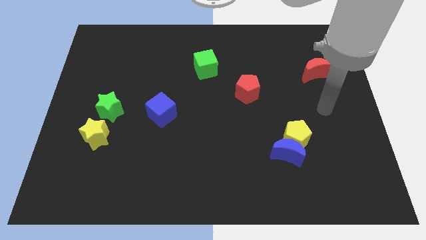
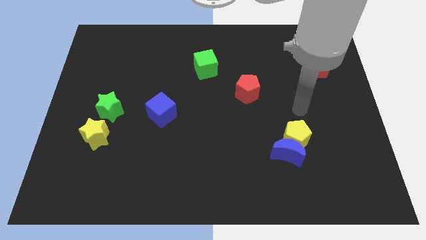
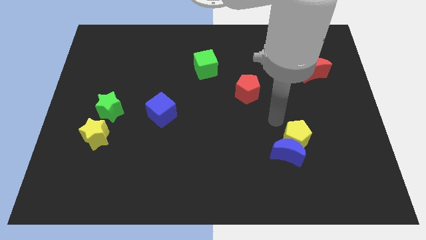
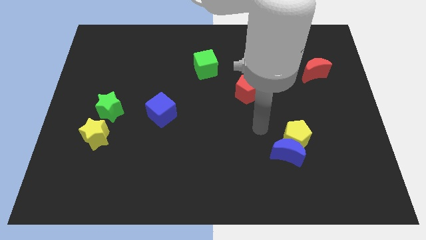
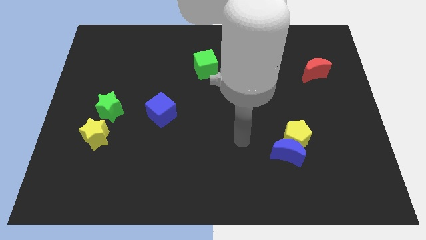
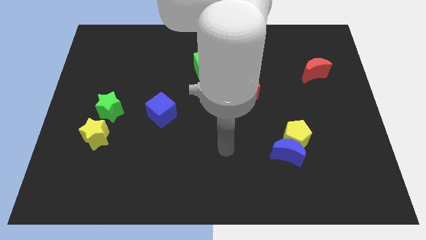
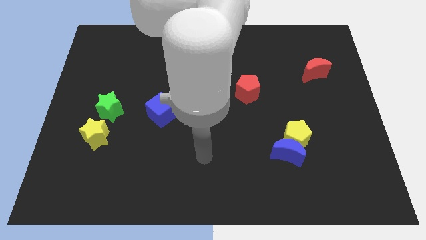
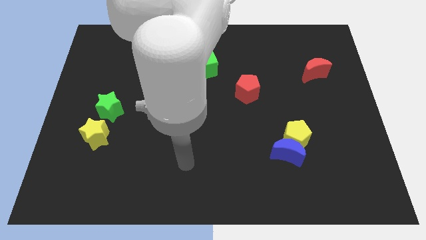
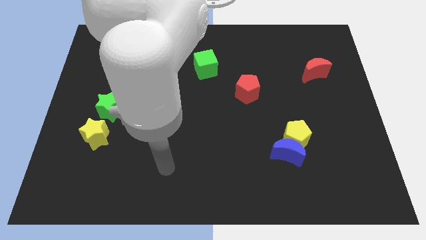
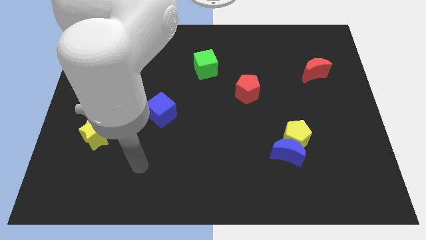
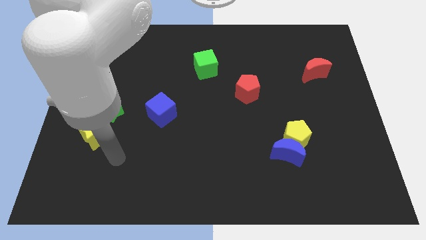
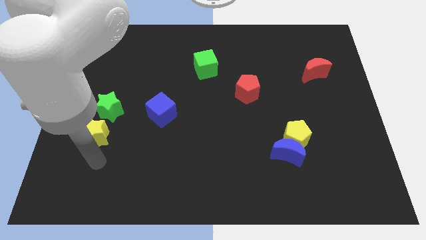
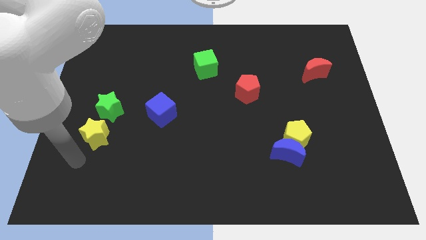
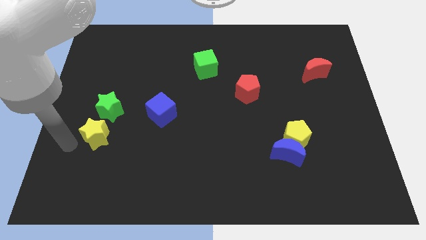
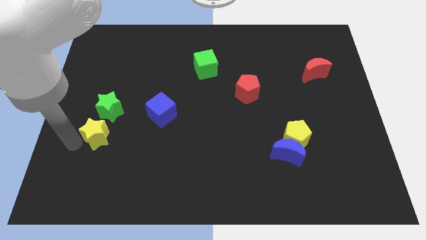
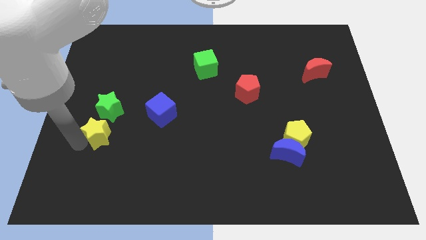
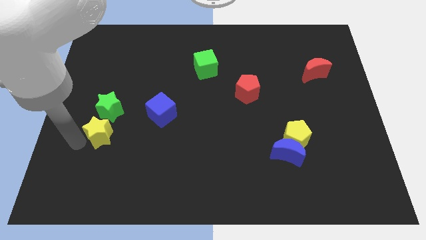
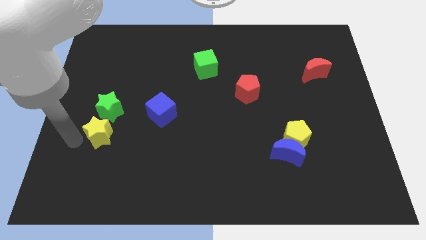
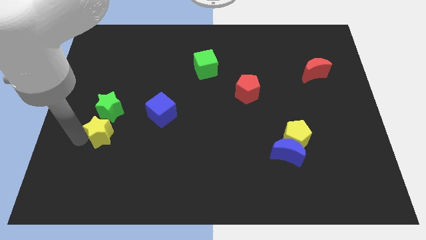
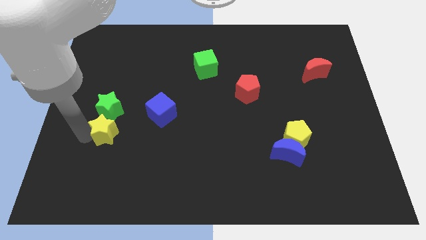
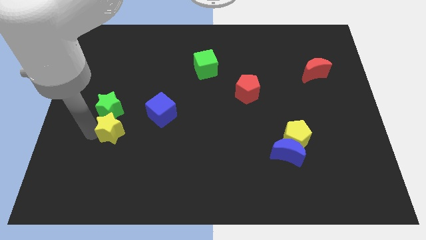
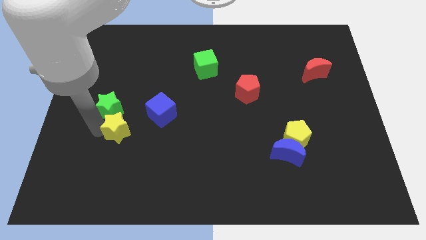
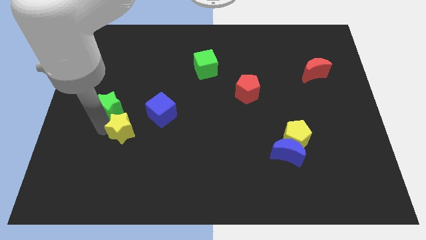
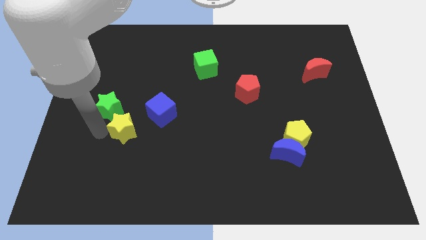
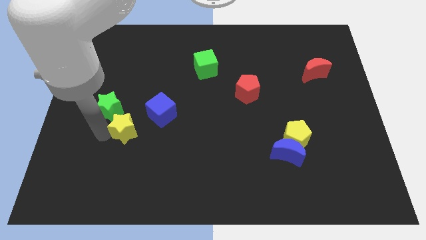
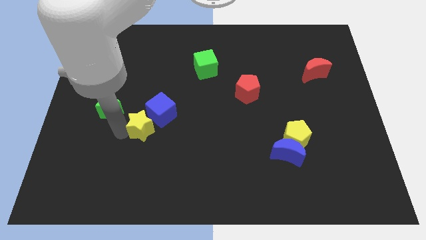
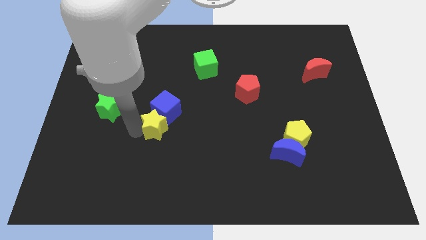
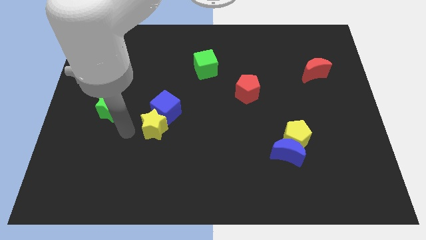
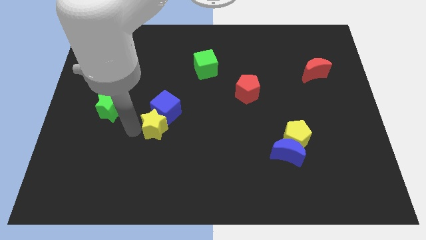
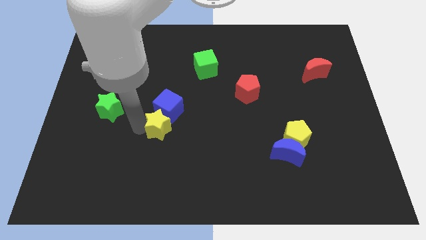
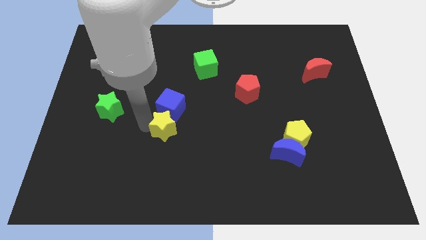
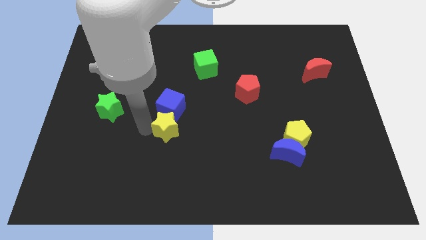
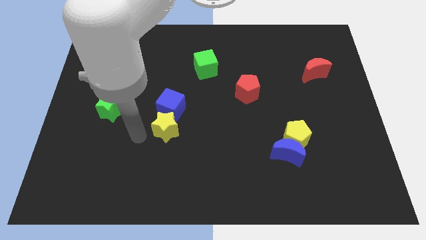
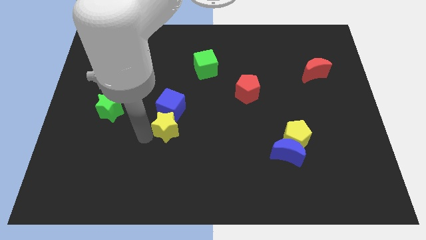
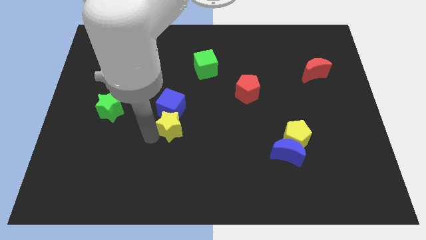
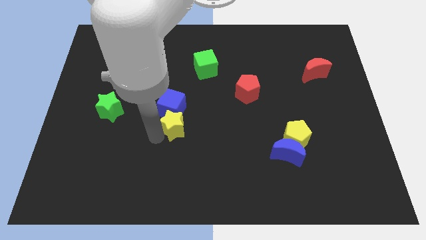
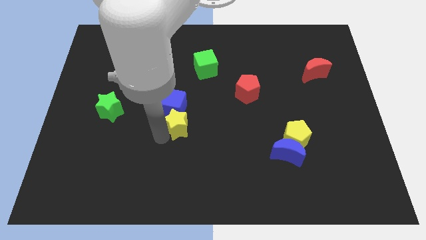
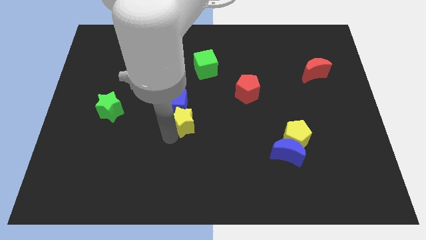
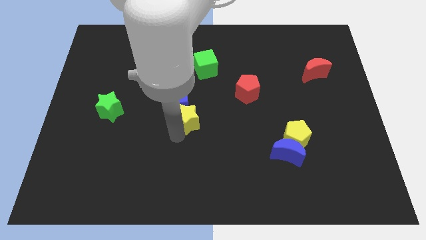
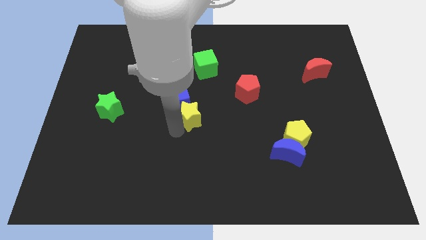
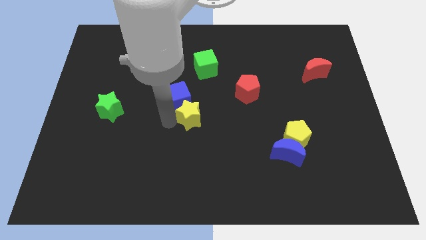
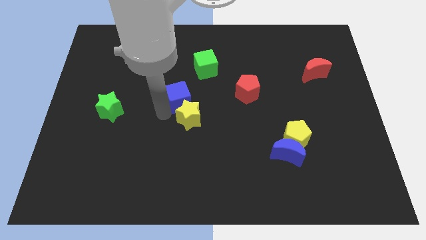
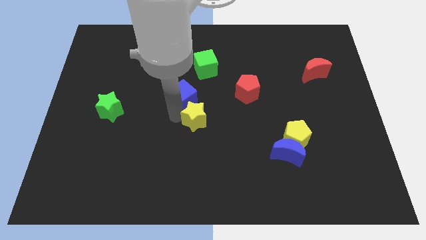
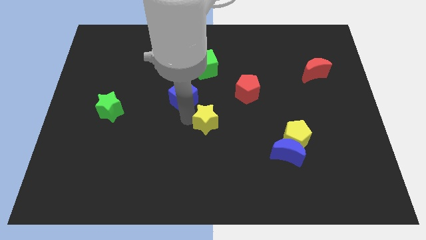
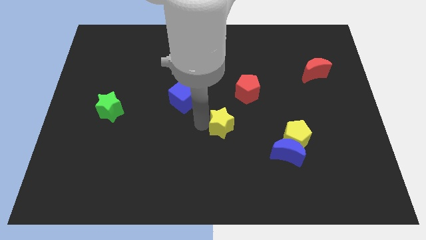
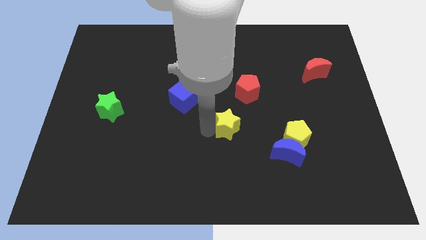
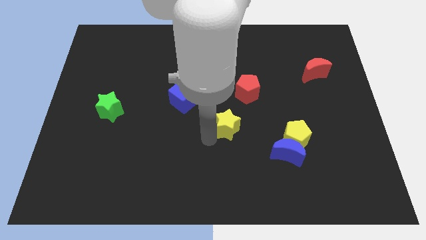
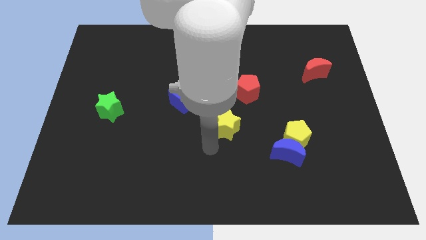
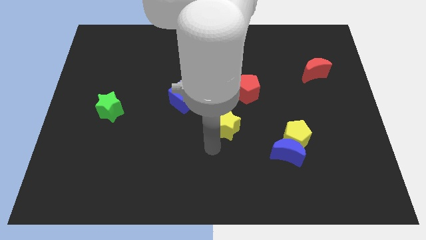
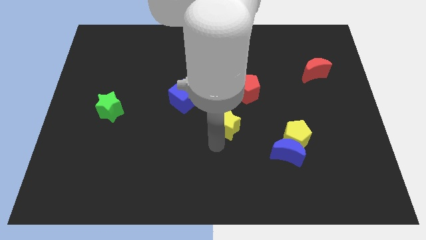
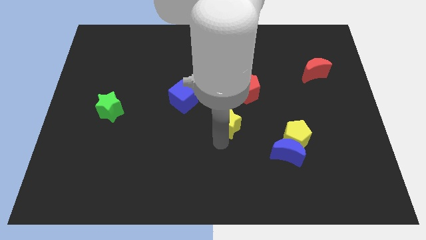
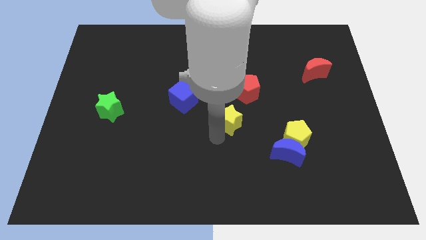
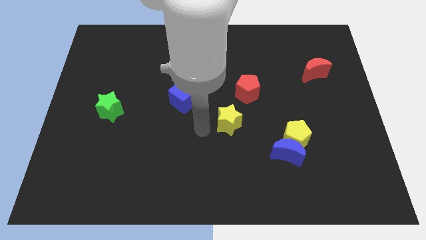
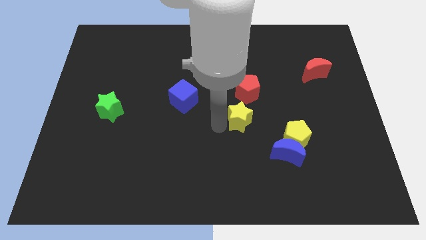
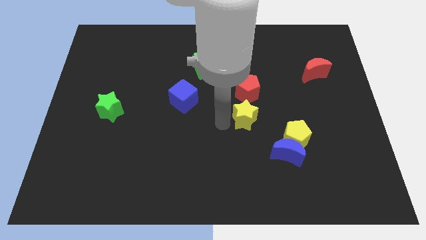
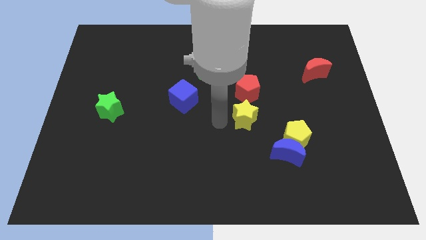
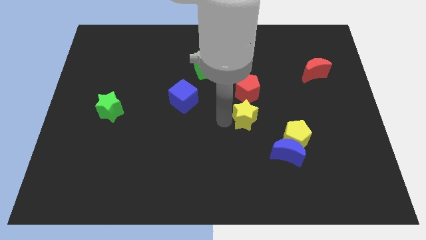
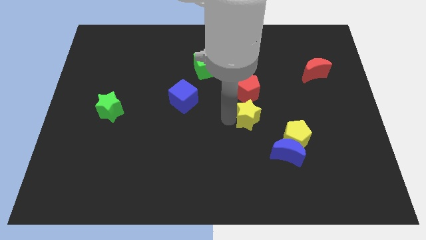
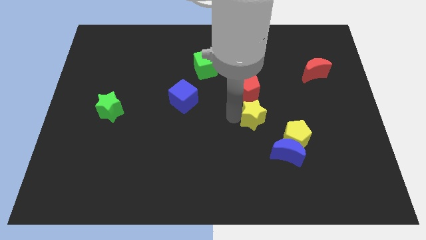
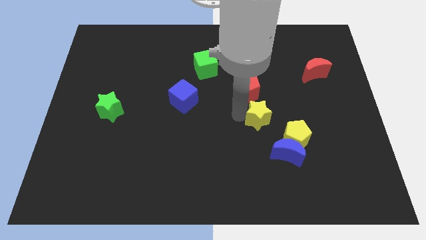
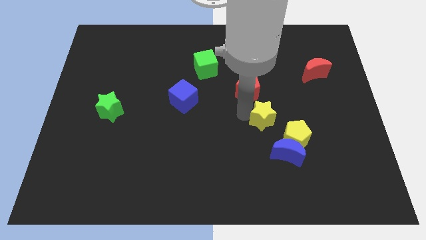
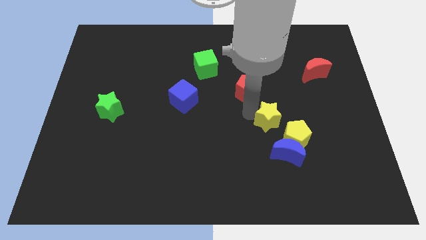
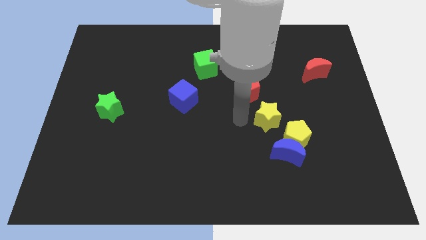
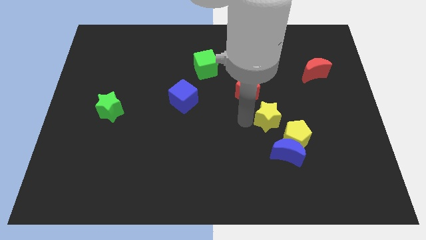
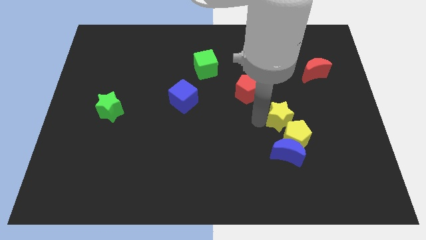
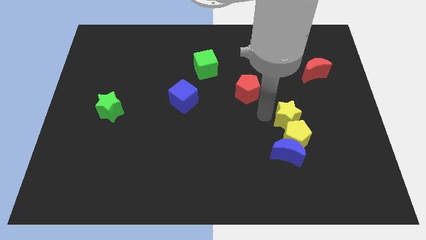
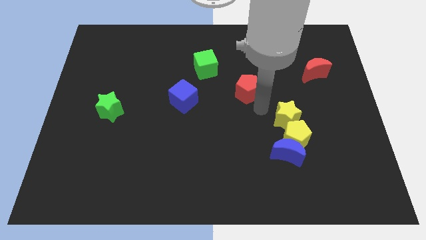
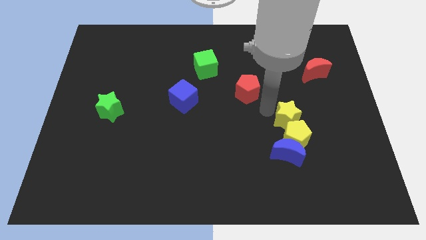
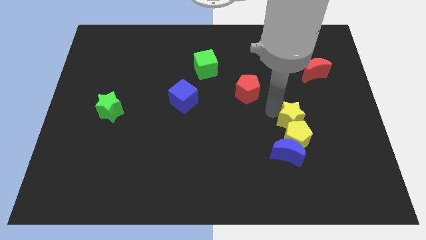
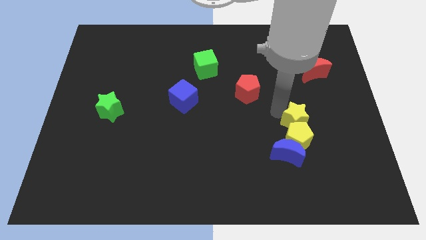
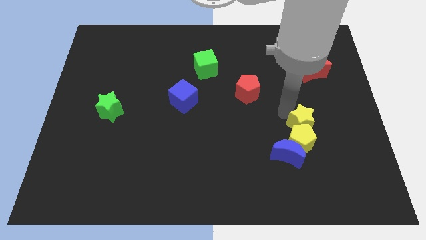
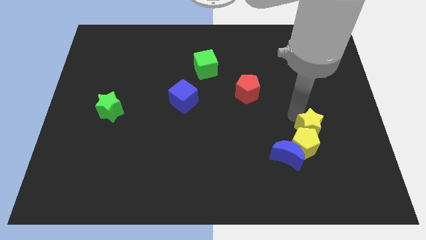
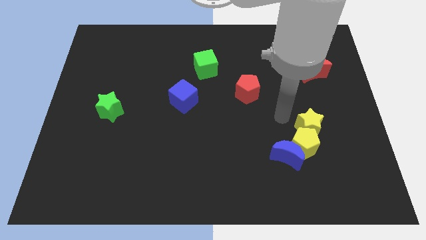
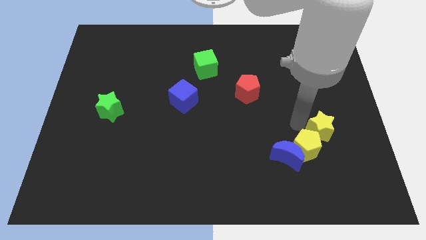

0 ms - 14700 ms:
move the yellow star to the right of the yellow pentagon
